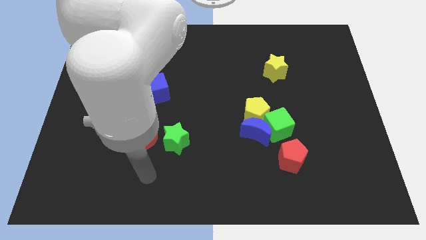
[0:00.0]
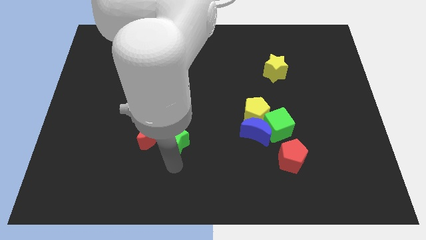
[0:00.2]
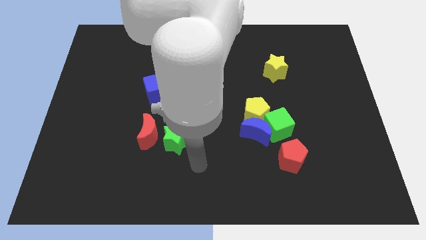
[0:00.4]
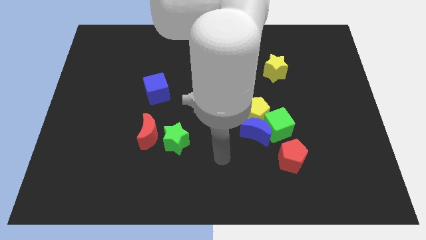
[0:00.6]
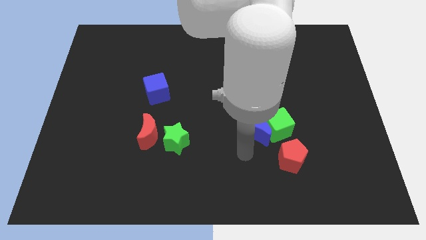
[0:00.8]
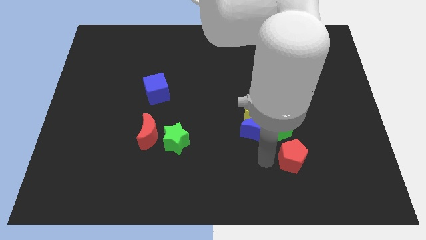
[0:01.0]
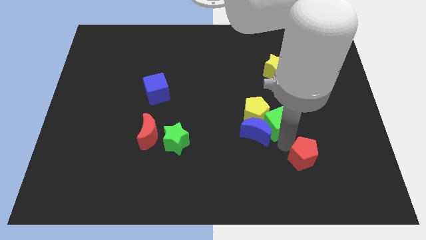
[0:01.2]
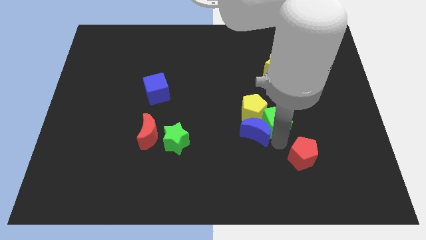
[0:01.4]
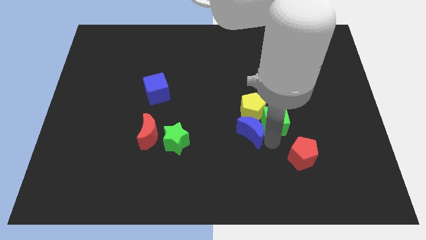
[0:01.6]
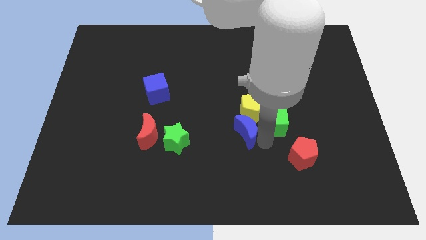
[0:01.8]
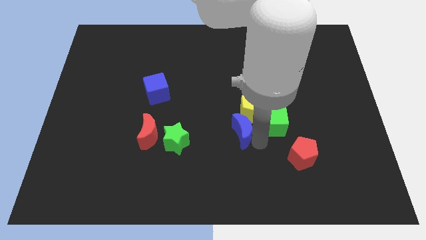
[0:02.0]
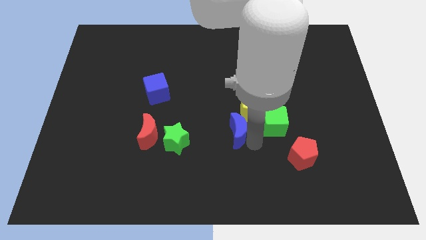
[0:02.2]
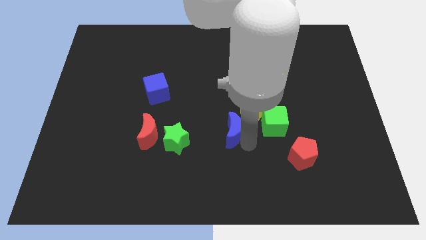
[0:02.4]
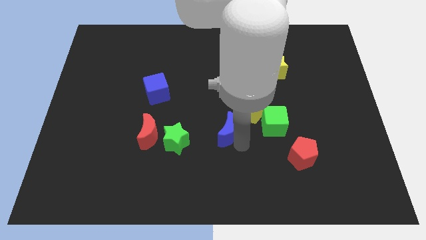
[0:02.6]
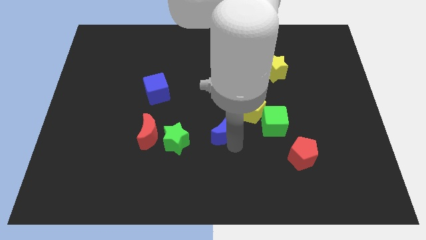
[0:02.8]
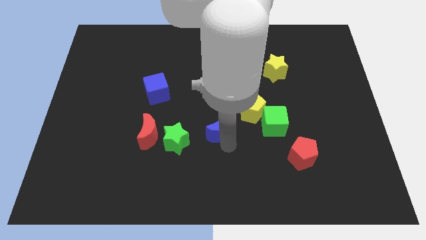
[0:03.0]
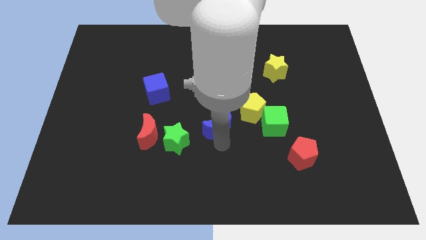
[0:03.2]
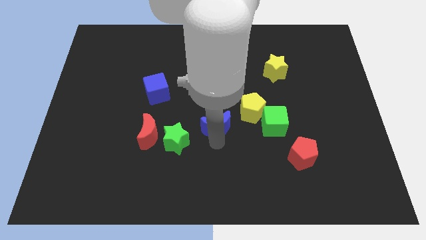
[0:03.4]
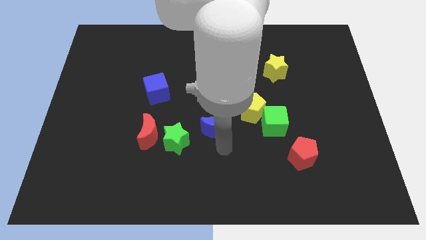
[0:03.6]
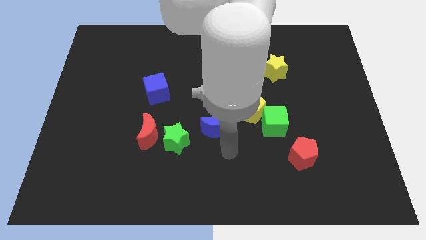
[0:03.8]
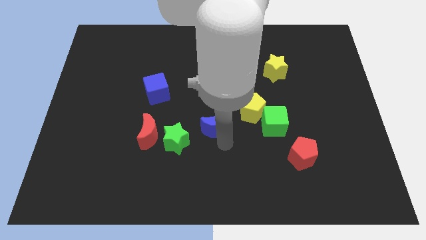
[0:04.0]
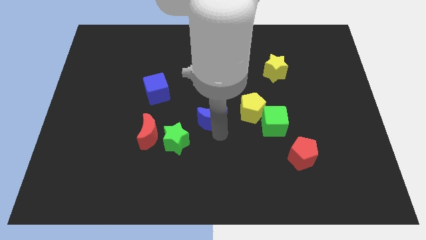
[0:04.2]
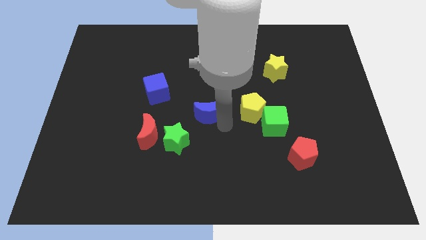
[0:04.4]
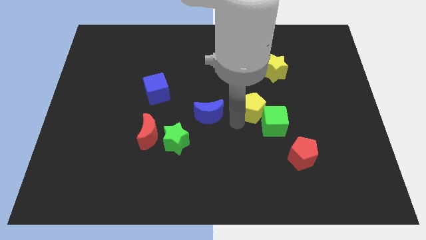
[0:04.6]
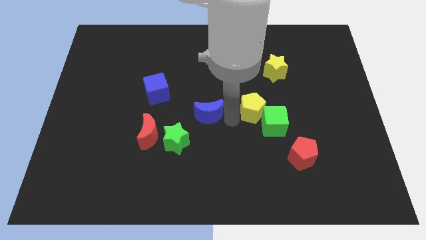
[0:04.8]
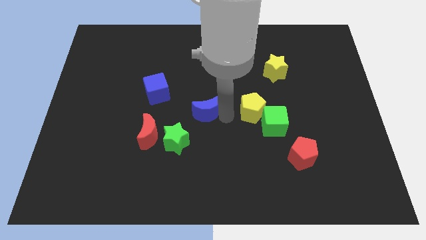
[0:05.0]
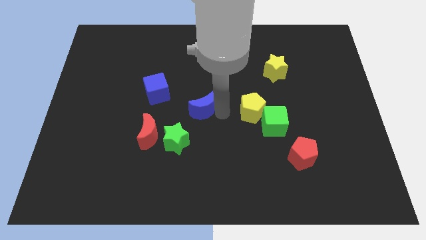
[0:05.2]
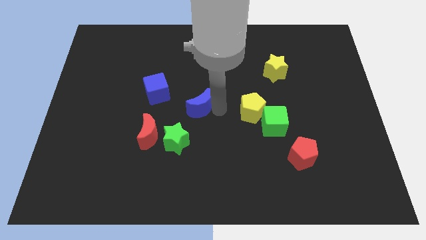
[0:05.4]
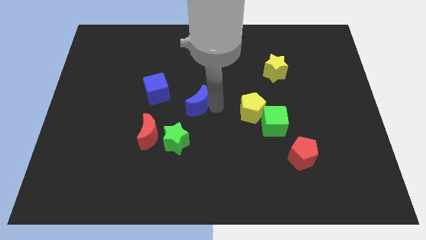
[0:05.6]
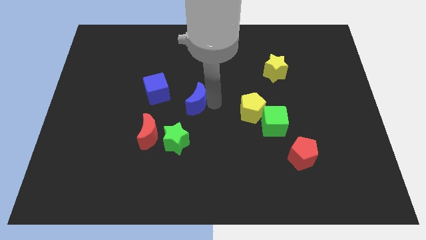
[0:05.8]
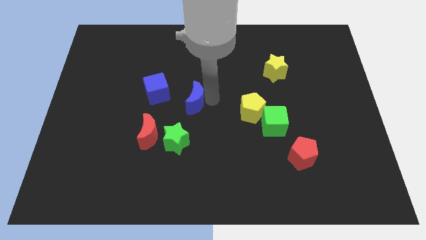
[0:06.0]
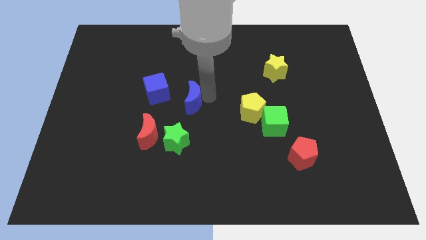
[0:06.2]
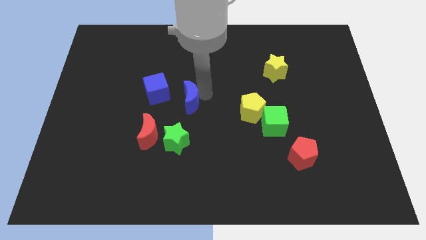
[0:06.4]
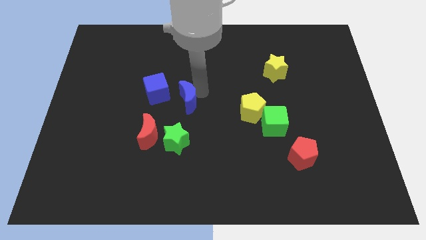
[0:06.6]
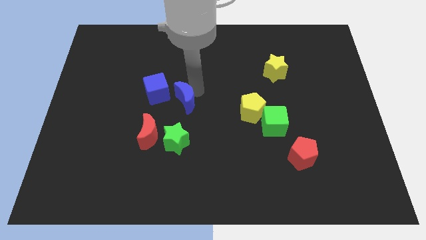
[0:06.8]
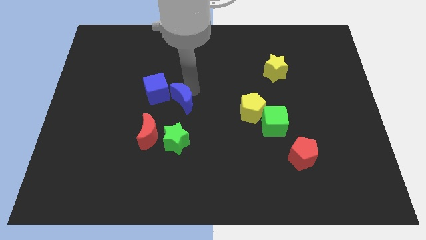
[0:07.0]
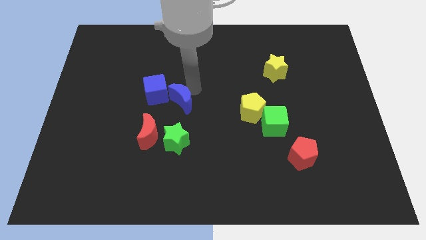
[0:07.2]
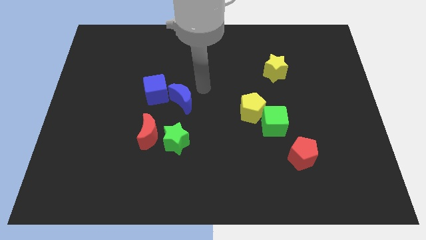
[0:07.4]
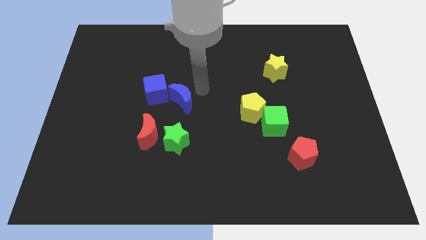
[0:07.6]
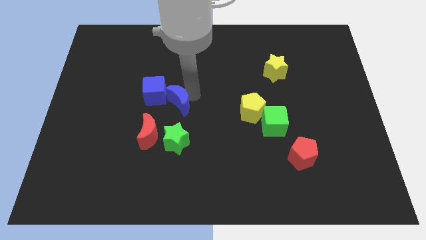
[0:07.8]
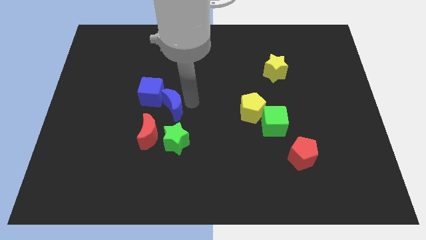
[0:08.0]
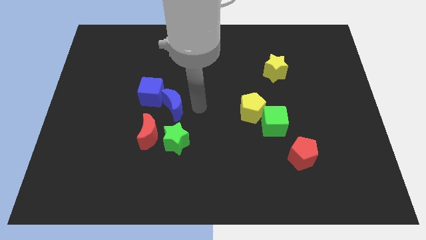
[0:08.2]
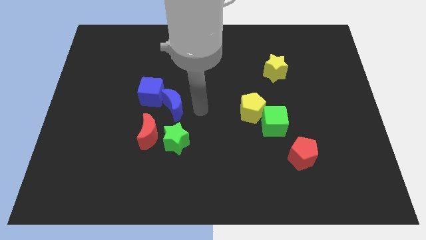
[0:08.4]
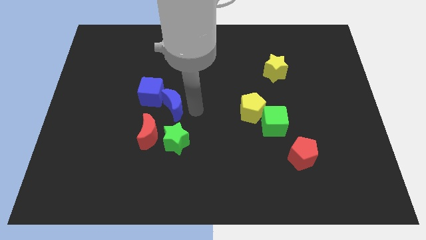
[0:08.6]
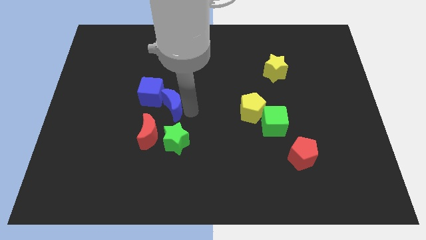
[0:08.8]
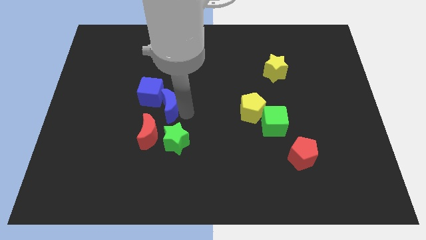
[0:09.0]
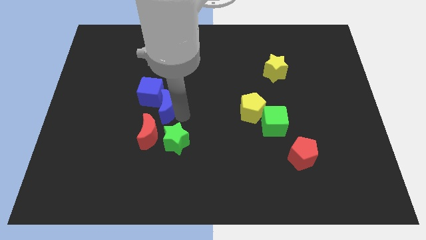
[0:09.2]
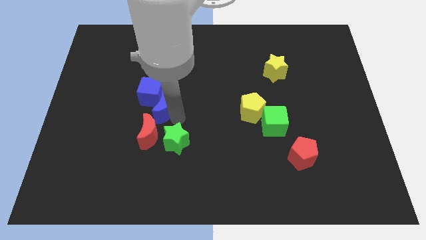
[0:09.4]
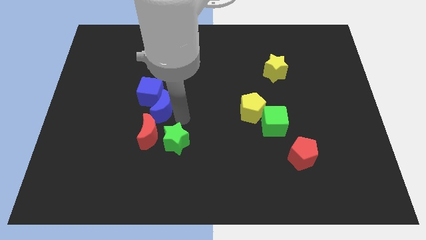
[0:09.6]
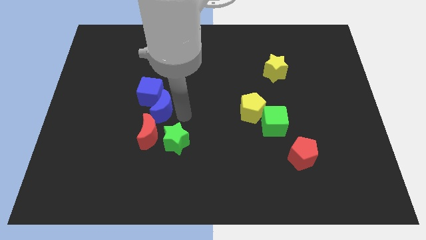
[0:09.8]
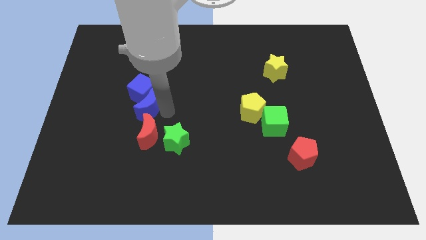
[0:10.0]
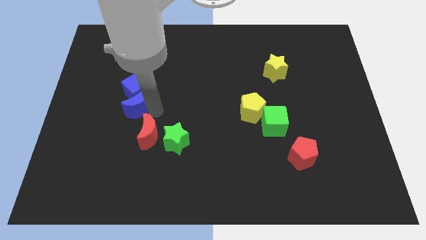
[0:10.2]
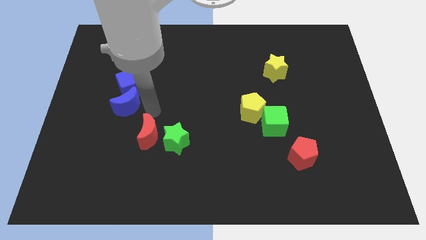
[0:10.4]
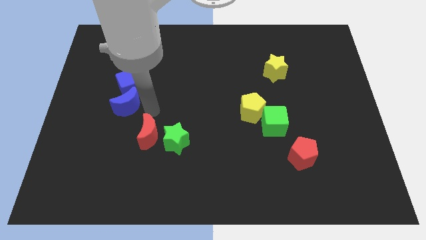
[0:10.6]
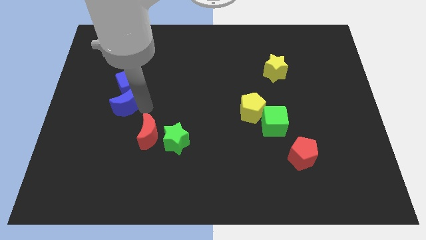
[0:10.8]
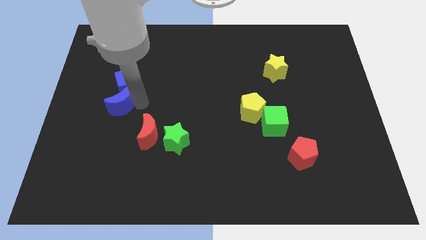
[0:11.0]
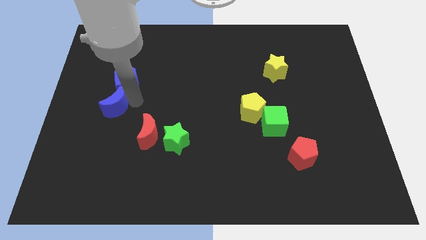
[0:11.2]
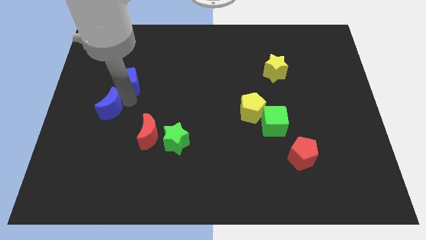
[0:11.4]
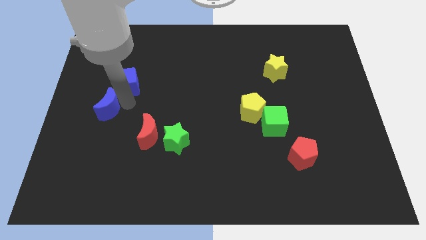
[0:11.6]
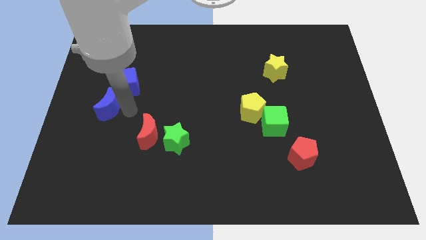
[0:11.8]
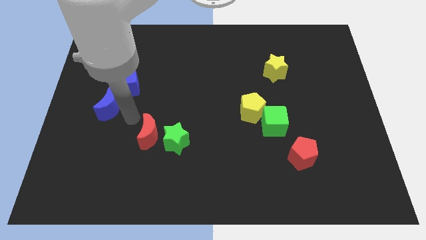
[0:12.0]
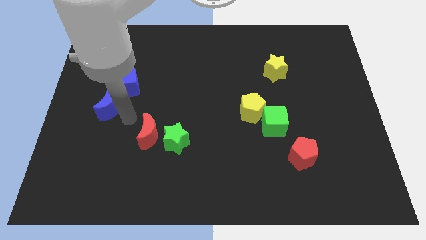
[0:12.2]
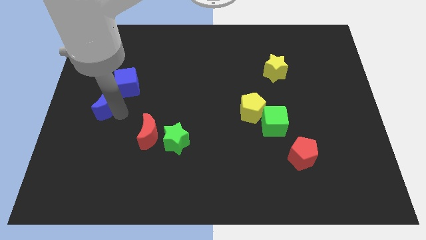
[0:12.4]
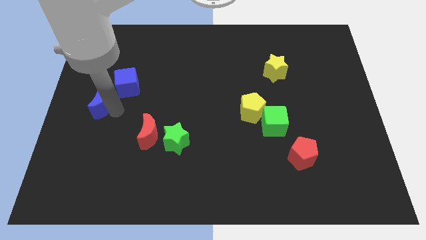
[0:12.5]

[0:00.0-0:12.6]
slide the blue moon to the left side of the board
